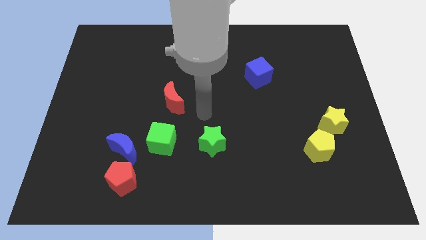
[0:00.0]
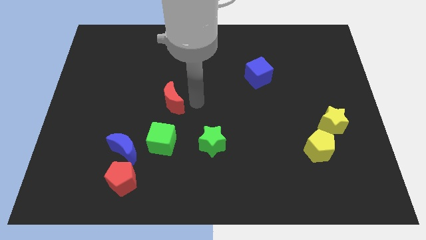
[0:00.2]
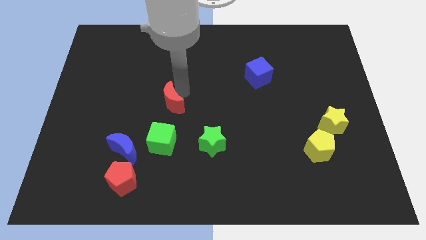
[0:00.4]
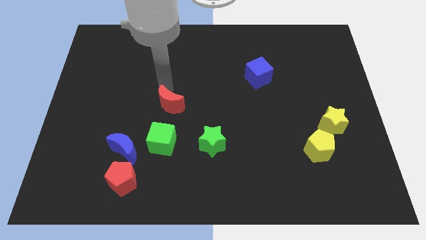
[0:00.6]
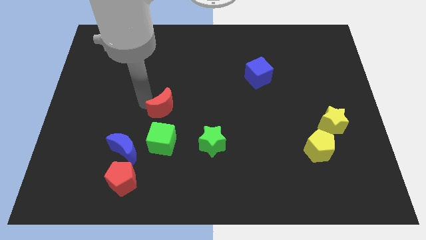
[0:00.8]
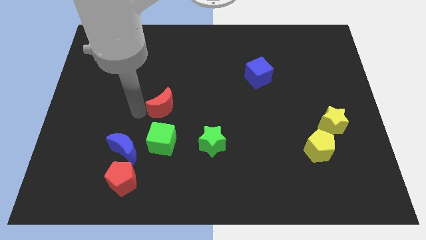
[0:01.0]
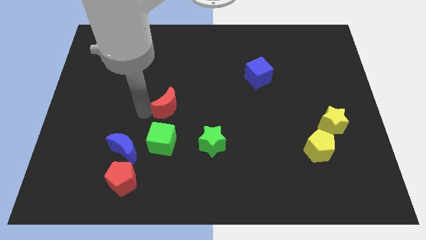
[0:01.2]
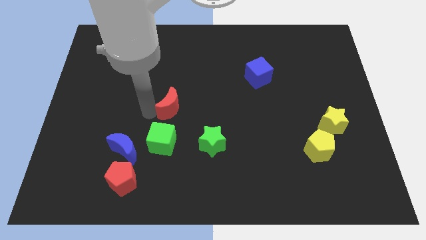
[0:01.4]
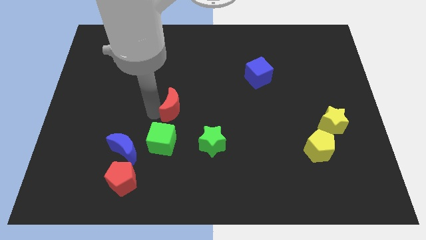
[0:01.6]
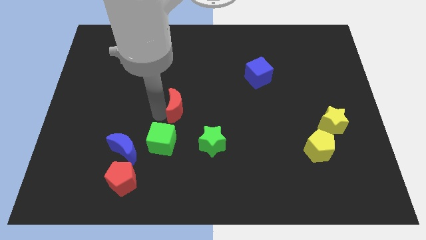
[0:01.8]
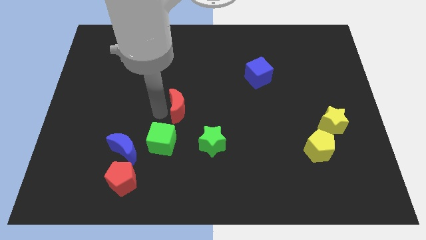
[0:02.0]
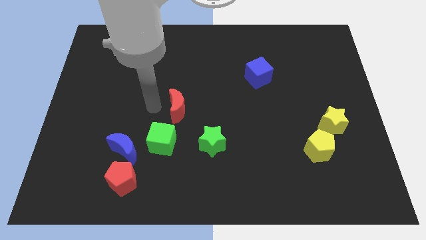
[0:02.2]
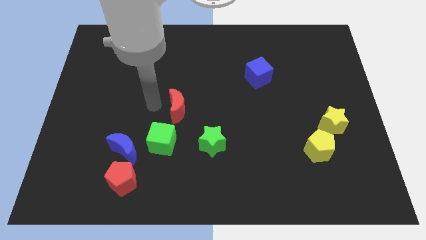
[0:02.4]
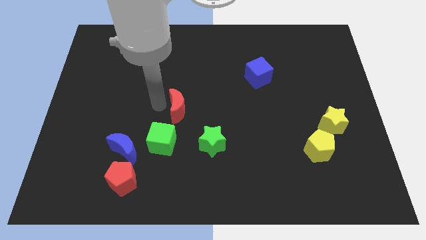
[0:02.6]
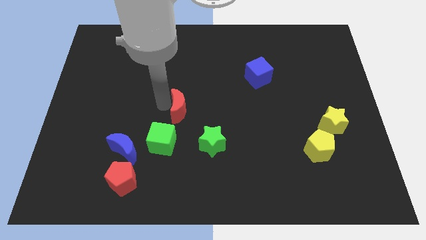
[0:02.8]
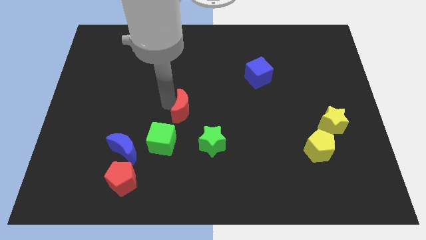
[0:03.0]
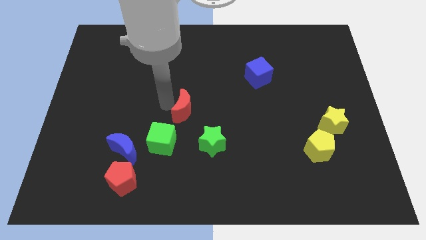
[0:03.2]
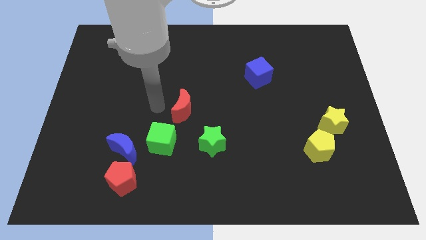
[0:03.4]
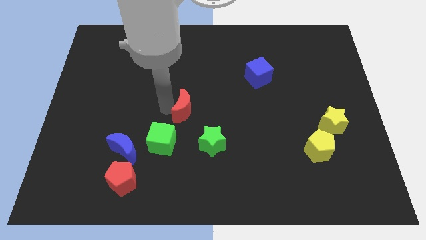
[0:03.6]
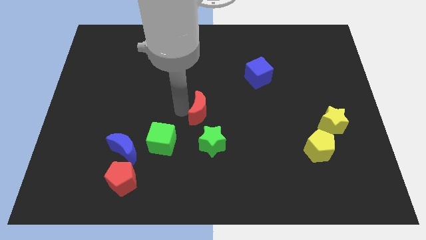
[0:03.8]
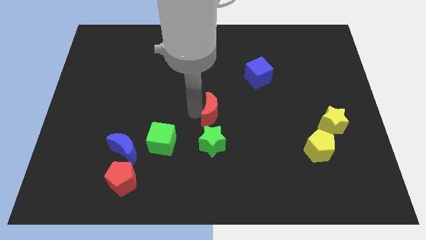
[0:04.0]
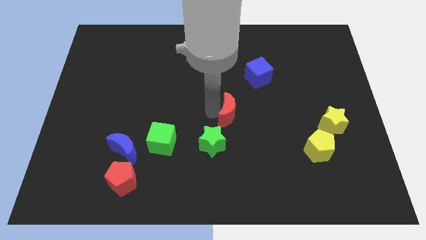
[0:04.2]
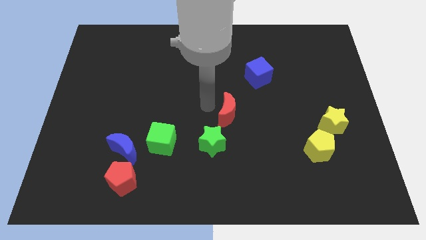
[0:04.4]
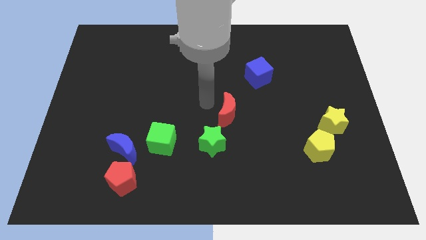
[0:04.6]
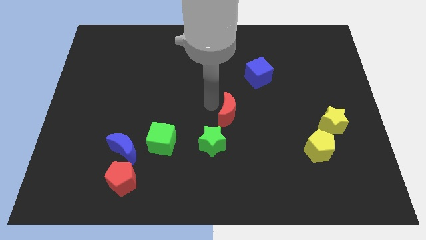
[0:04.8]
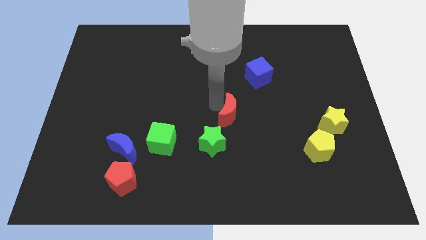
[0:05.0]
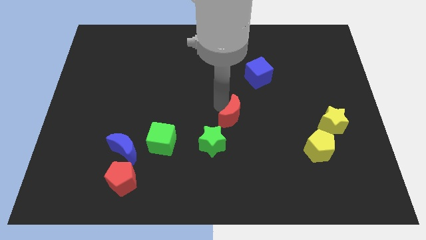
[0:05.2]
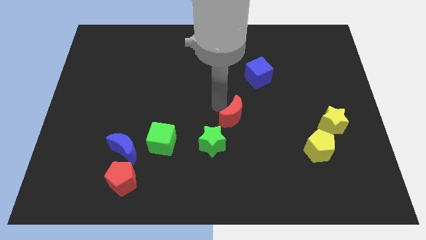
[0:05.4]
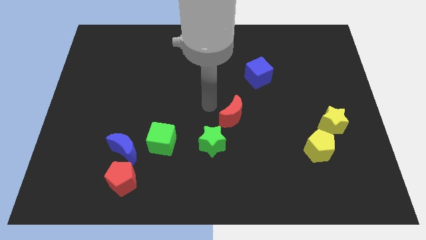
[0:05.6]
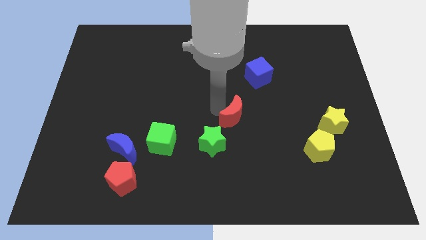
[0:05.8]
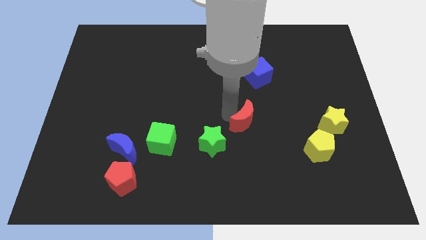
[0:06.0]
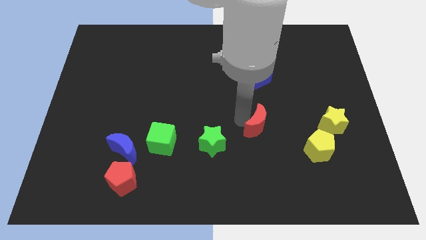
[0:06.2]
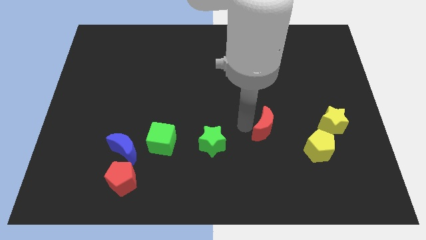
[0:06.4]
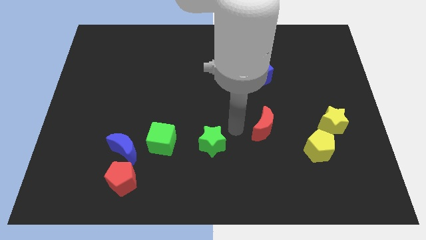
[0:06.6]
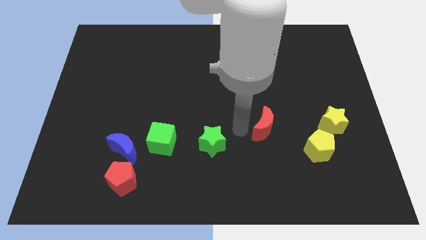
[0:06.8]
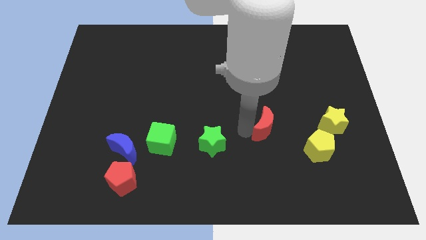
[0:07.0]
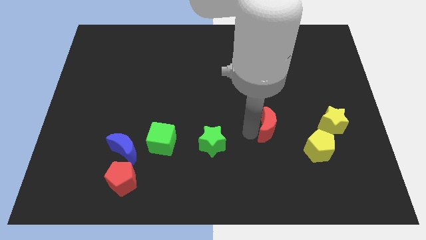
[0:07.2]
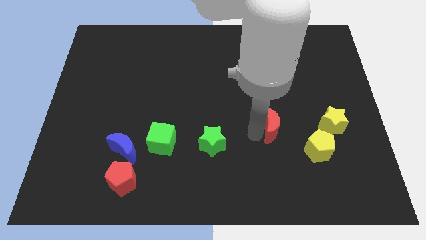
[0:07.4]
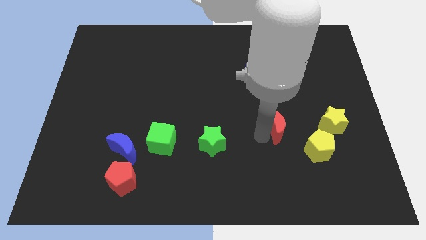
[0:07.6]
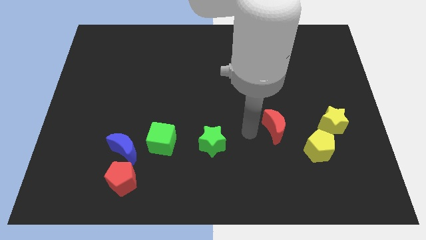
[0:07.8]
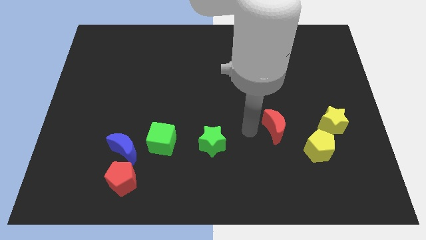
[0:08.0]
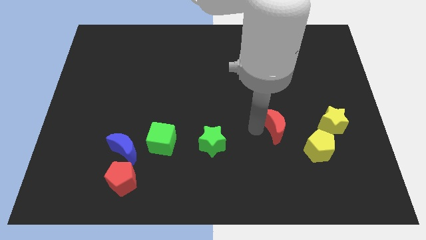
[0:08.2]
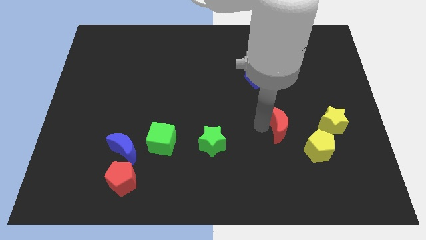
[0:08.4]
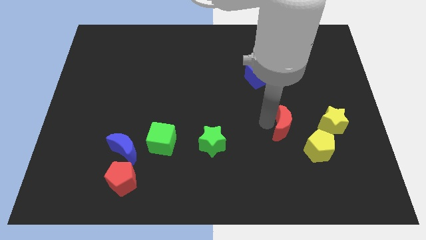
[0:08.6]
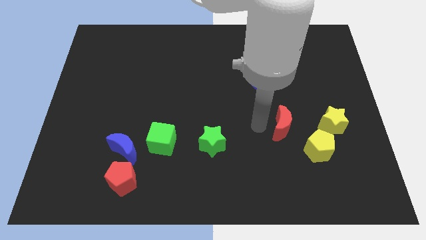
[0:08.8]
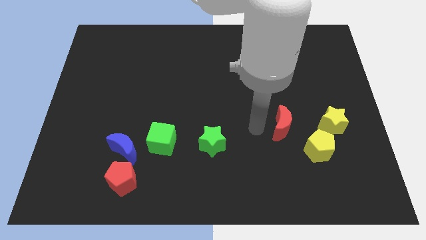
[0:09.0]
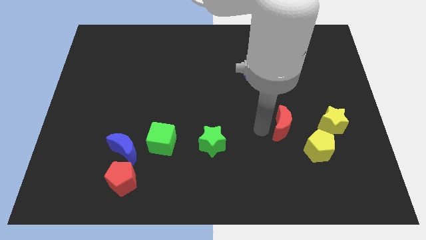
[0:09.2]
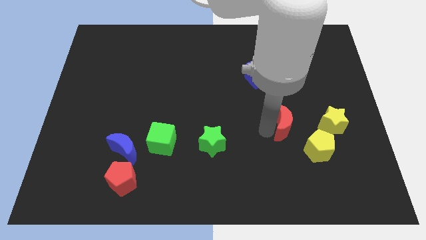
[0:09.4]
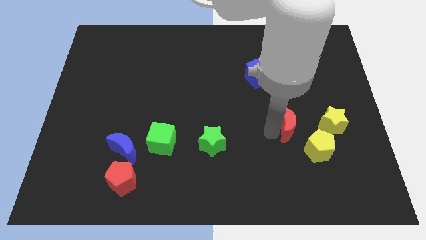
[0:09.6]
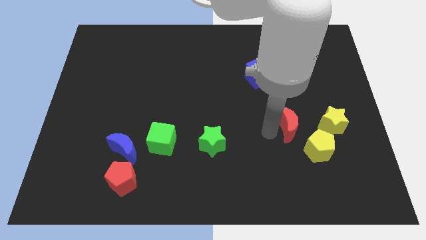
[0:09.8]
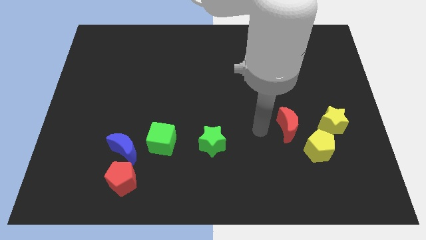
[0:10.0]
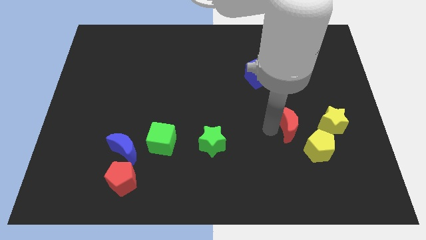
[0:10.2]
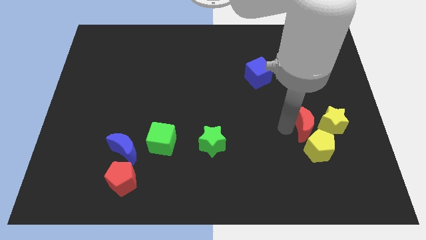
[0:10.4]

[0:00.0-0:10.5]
put the red moon close to the yellow star

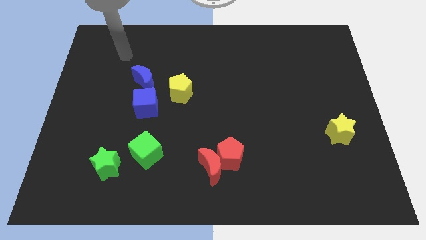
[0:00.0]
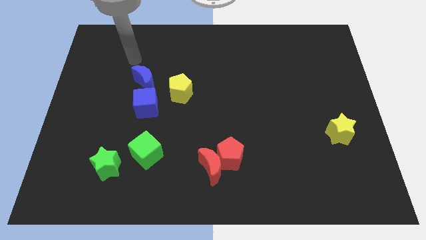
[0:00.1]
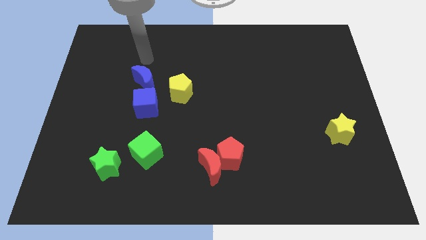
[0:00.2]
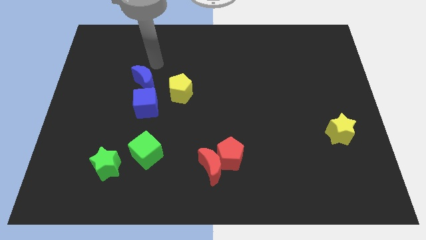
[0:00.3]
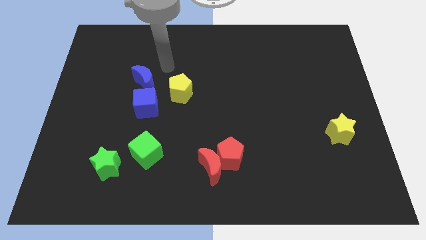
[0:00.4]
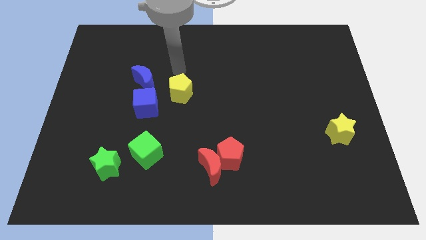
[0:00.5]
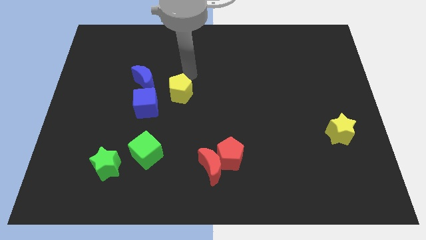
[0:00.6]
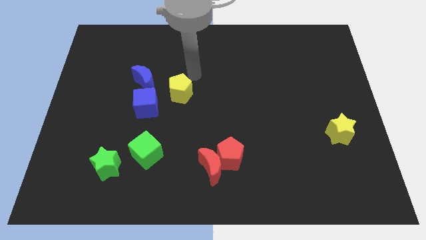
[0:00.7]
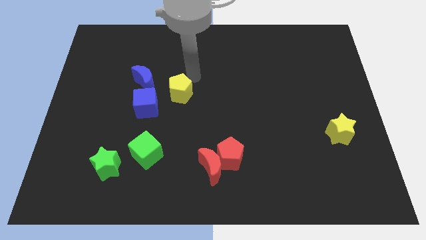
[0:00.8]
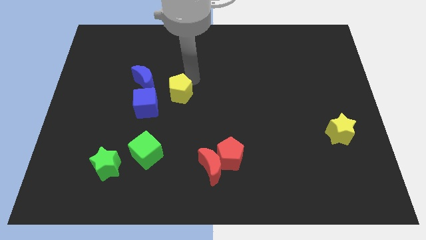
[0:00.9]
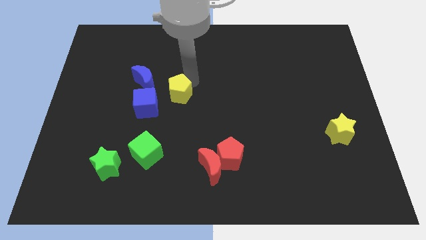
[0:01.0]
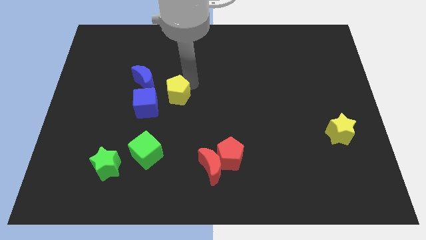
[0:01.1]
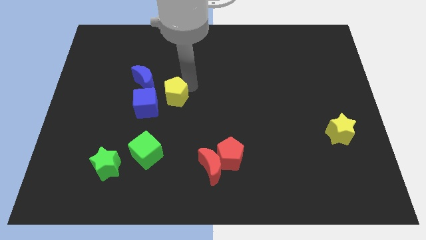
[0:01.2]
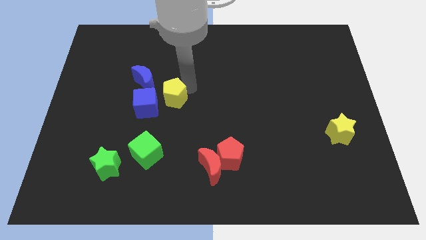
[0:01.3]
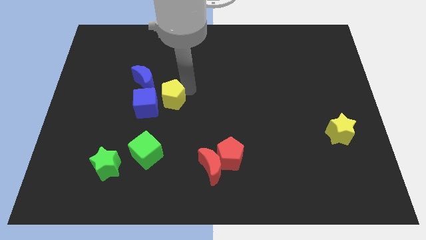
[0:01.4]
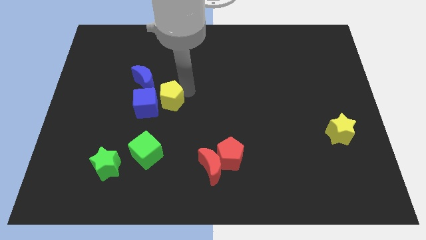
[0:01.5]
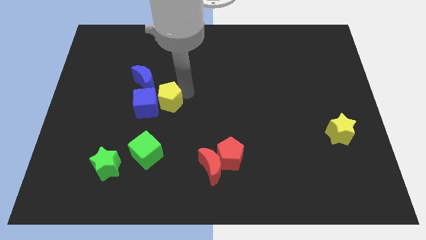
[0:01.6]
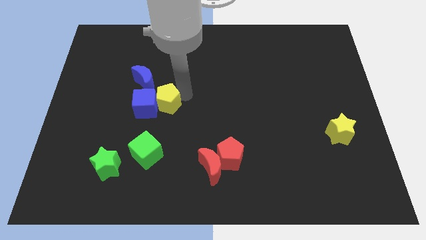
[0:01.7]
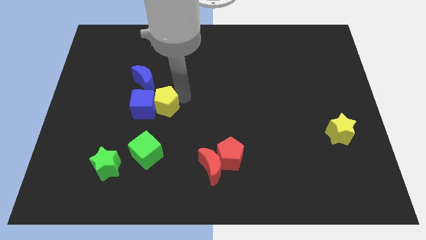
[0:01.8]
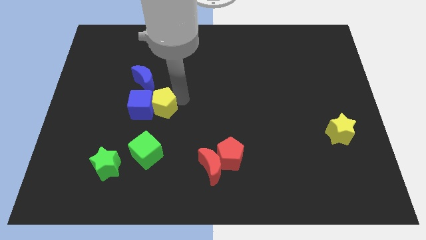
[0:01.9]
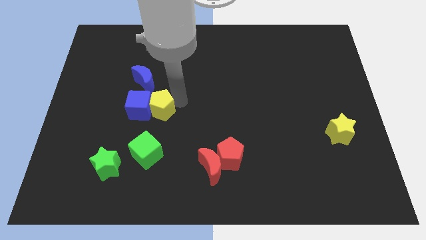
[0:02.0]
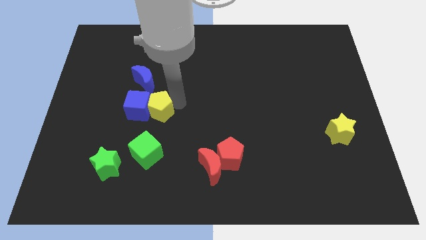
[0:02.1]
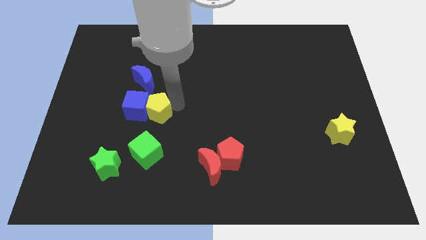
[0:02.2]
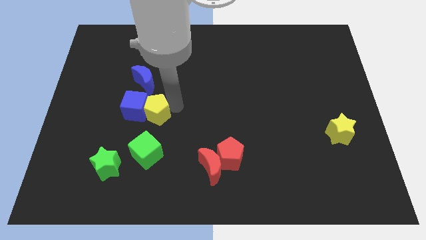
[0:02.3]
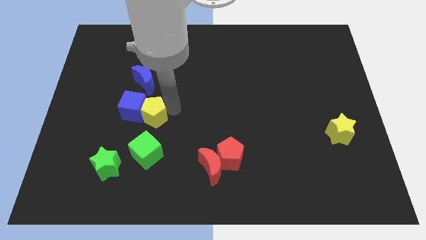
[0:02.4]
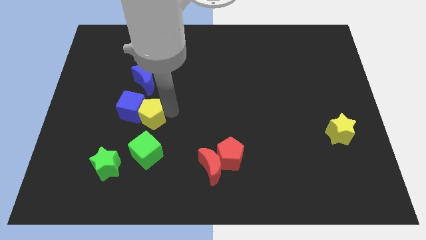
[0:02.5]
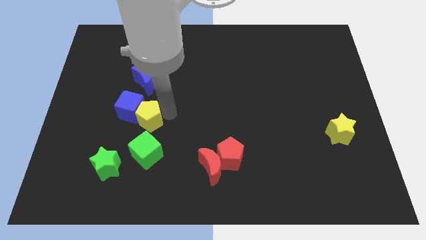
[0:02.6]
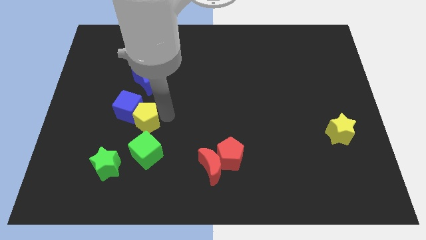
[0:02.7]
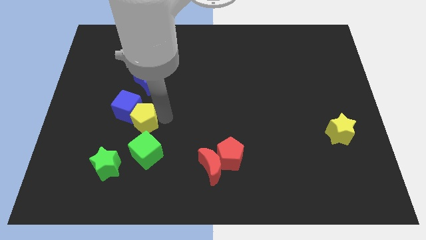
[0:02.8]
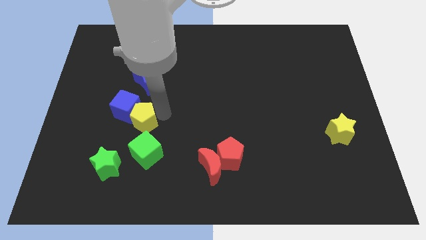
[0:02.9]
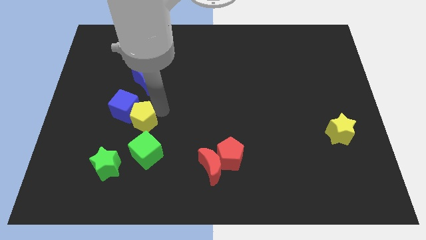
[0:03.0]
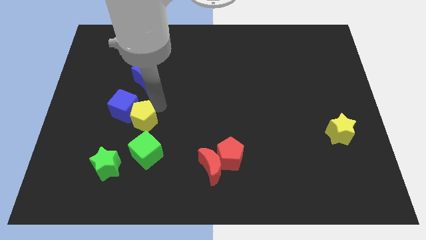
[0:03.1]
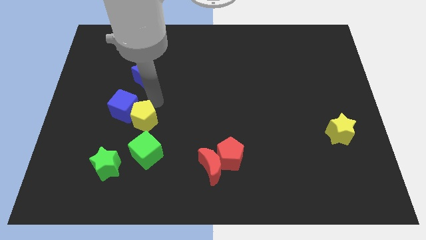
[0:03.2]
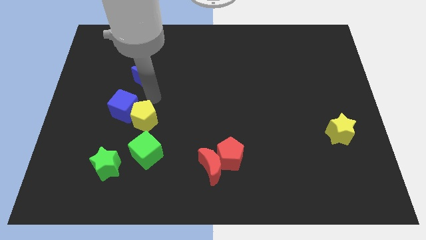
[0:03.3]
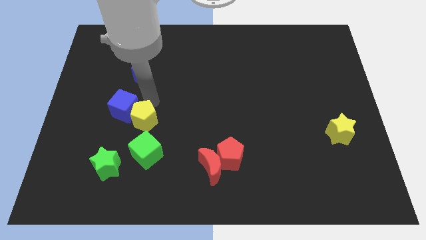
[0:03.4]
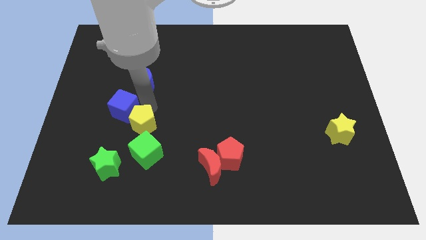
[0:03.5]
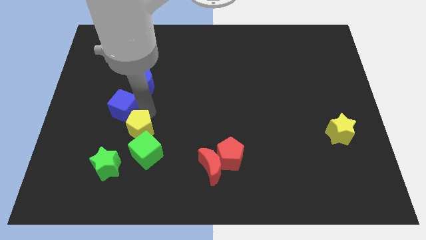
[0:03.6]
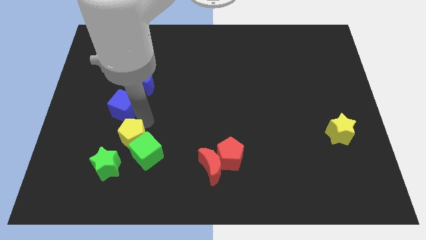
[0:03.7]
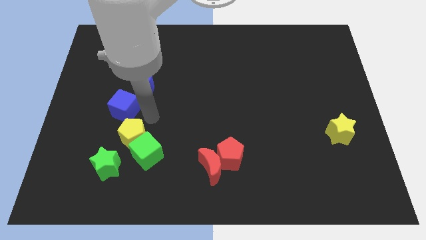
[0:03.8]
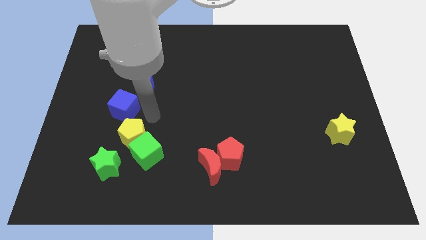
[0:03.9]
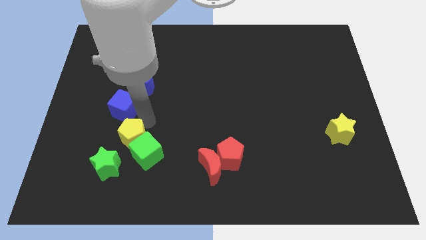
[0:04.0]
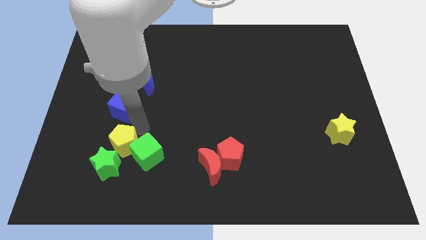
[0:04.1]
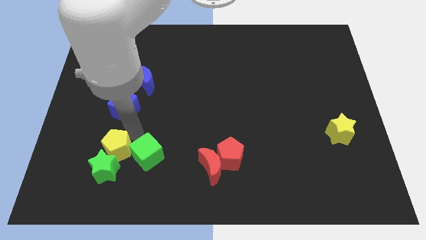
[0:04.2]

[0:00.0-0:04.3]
slide the yellow pentagon close to the green star
